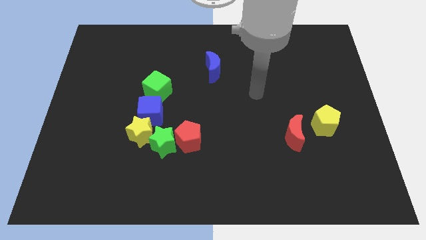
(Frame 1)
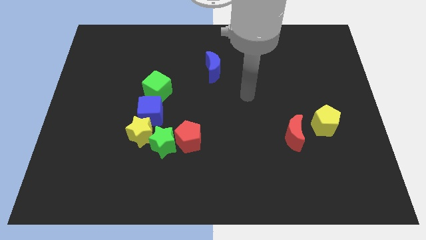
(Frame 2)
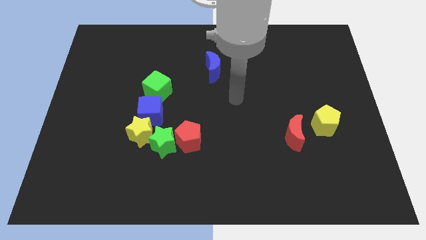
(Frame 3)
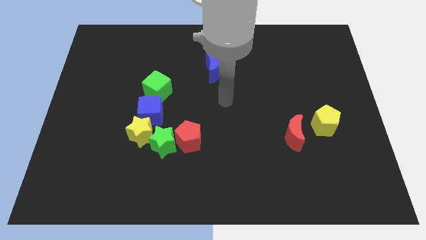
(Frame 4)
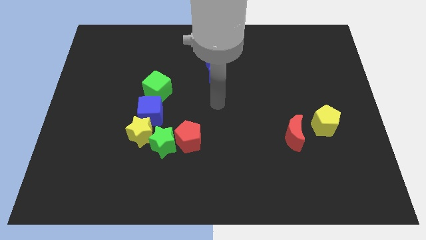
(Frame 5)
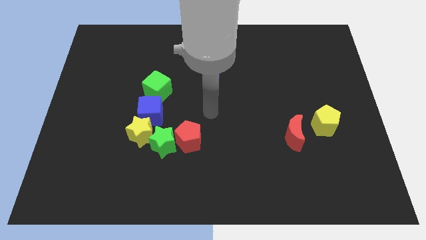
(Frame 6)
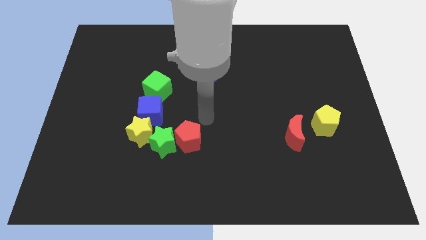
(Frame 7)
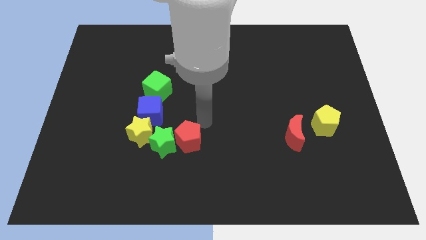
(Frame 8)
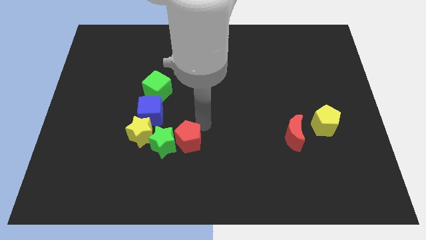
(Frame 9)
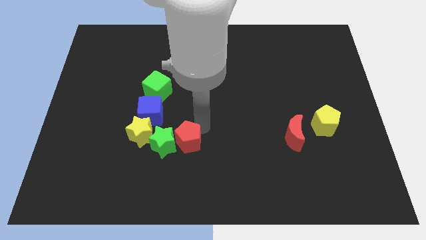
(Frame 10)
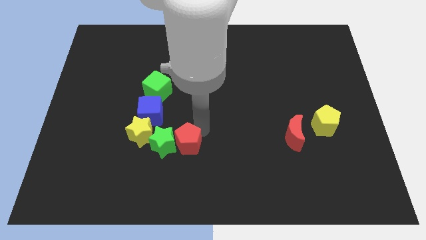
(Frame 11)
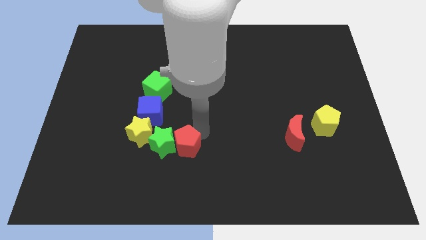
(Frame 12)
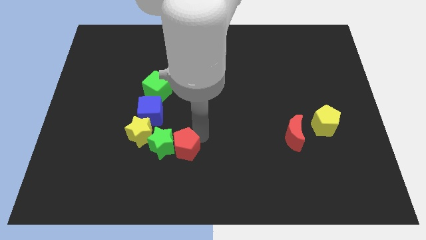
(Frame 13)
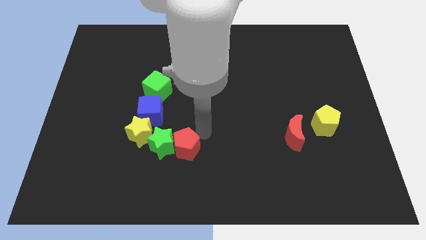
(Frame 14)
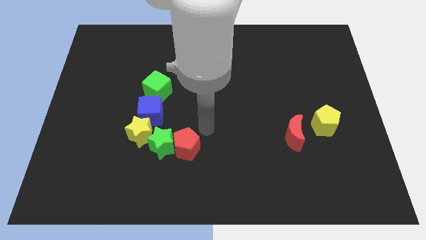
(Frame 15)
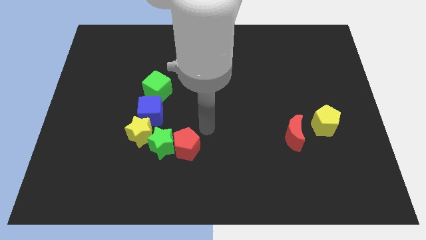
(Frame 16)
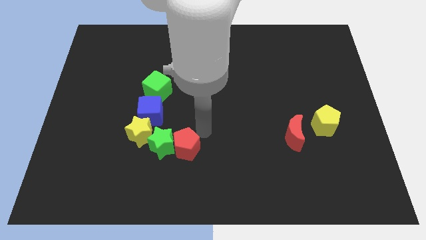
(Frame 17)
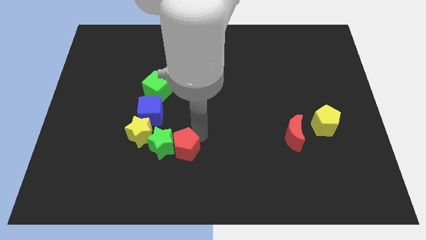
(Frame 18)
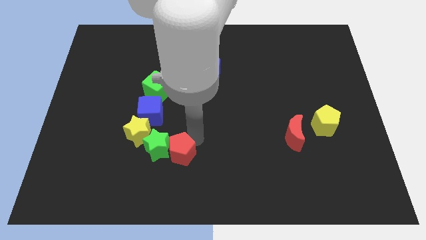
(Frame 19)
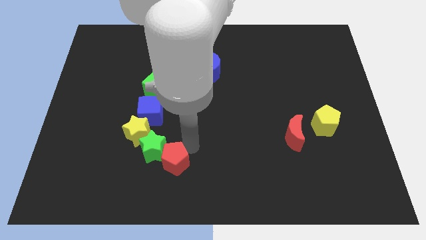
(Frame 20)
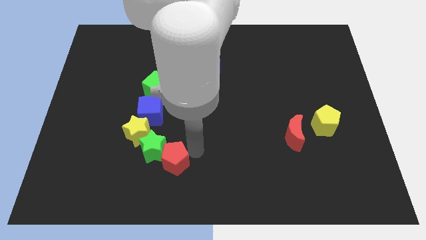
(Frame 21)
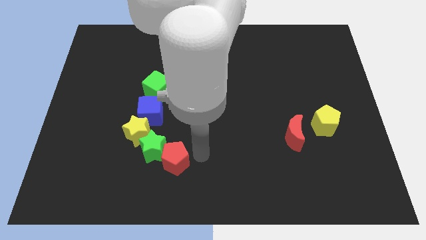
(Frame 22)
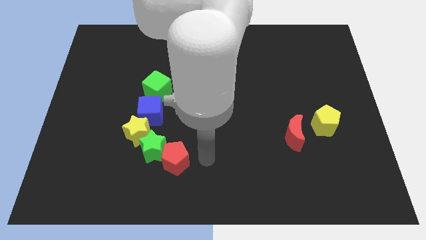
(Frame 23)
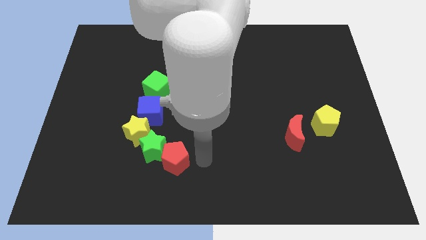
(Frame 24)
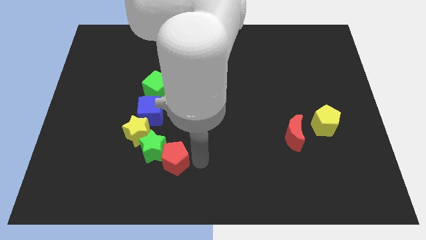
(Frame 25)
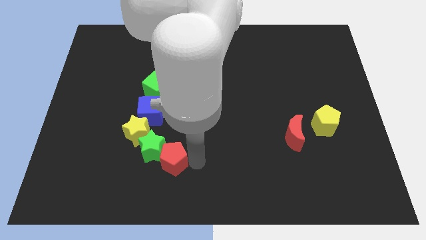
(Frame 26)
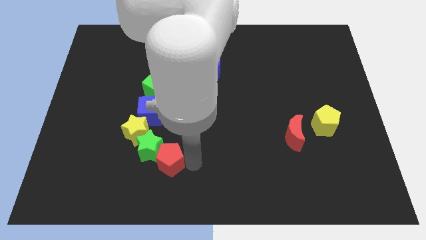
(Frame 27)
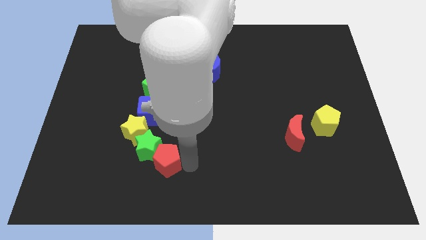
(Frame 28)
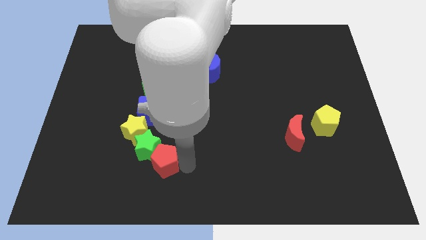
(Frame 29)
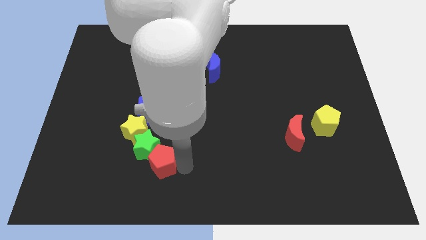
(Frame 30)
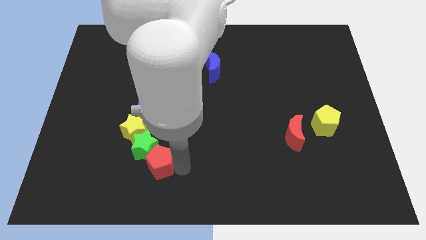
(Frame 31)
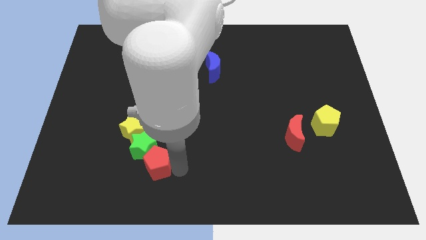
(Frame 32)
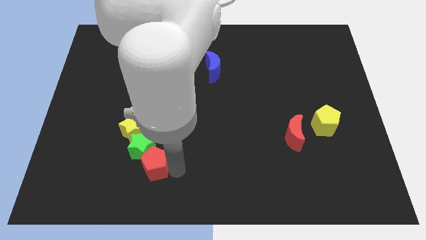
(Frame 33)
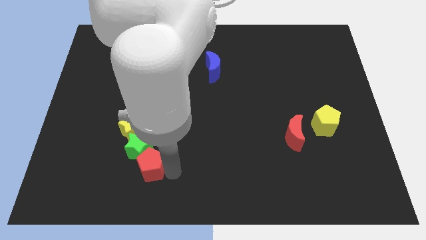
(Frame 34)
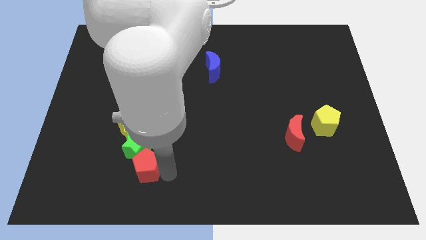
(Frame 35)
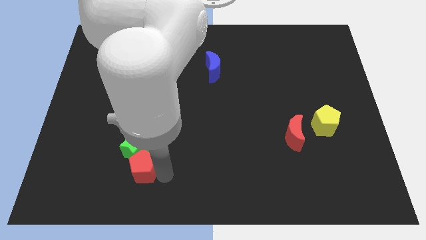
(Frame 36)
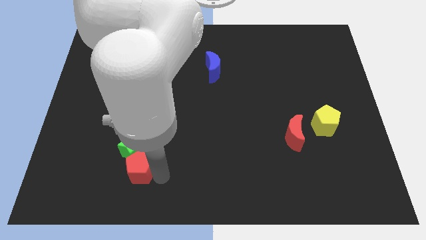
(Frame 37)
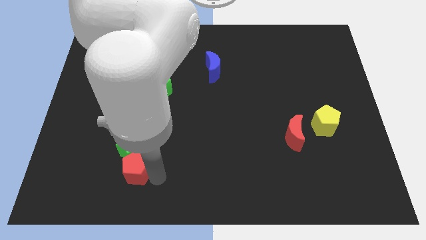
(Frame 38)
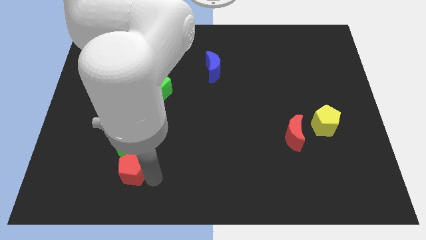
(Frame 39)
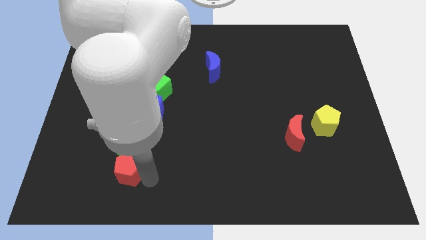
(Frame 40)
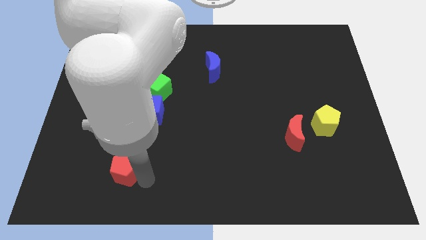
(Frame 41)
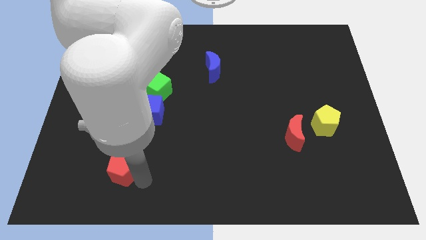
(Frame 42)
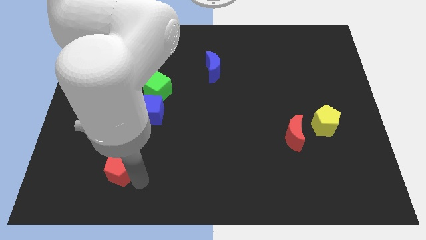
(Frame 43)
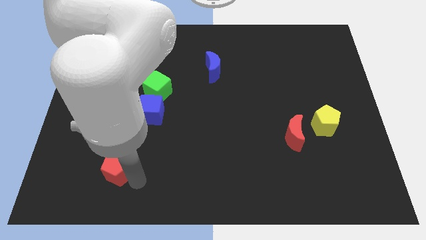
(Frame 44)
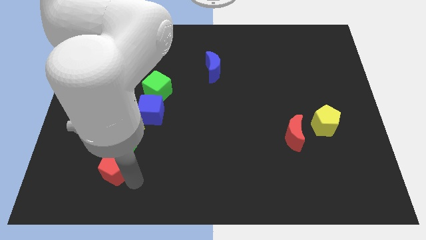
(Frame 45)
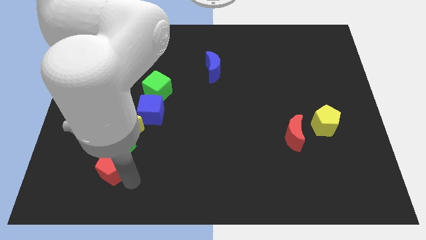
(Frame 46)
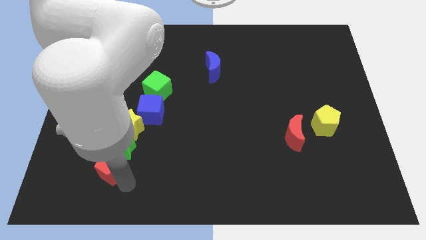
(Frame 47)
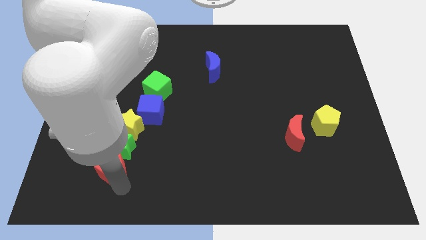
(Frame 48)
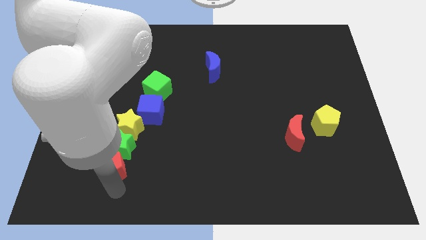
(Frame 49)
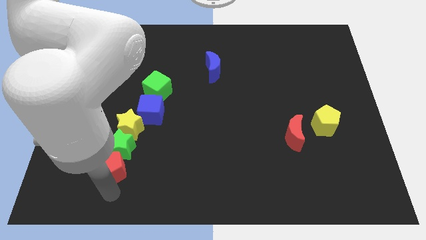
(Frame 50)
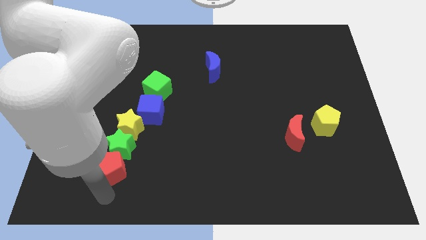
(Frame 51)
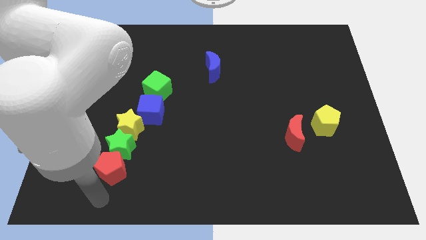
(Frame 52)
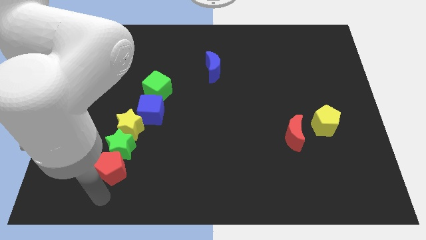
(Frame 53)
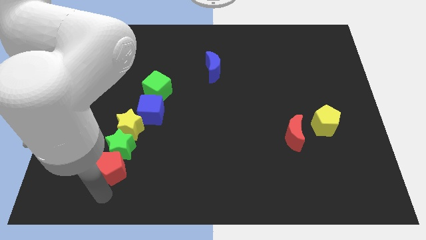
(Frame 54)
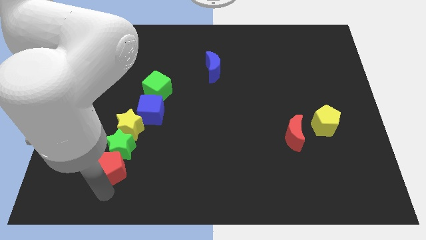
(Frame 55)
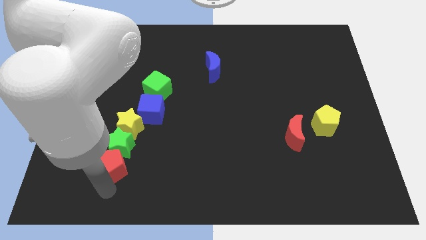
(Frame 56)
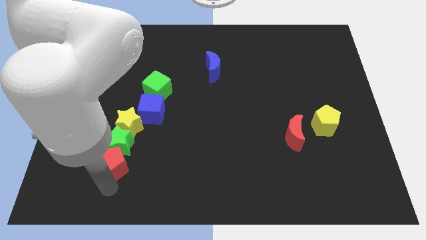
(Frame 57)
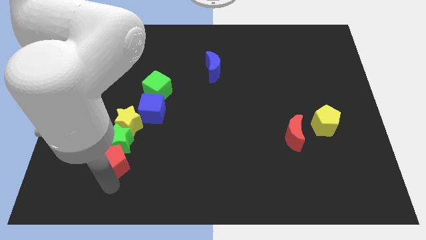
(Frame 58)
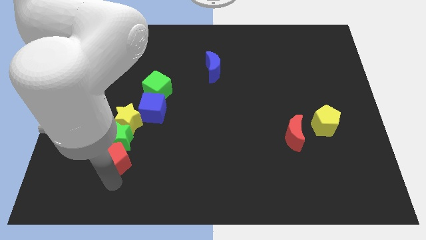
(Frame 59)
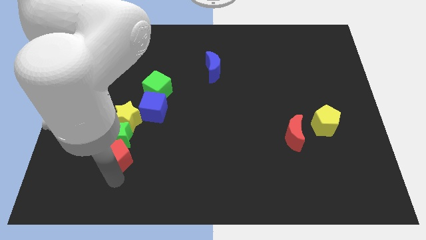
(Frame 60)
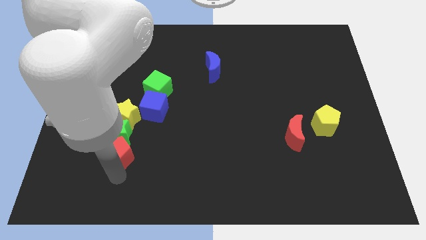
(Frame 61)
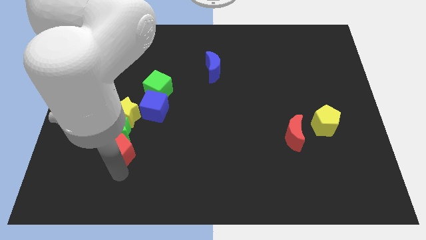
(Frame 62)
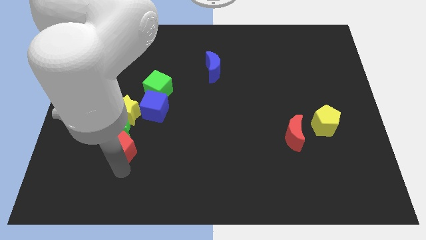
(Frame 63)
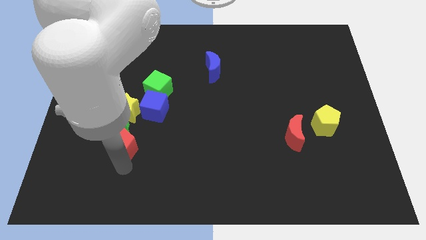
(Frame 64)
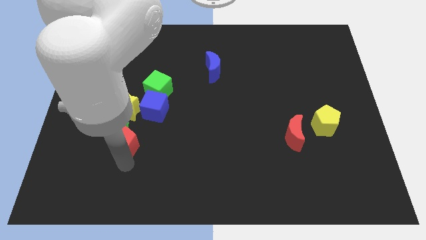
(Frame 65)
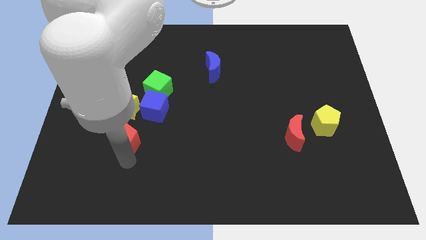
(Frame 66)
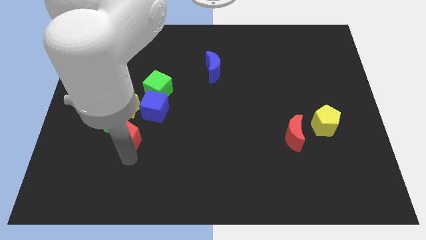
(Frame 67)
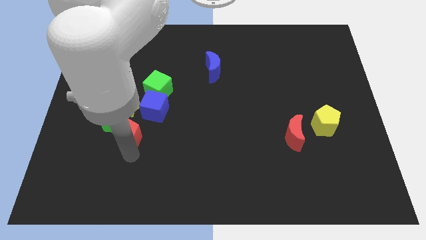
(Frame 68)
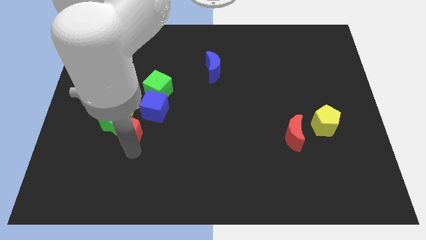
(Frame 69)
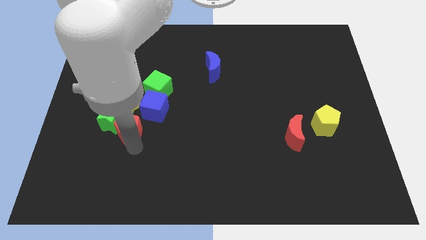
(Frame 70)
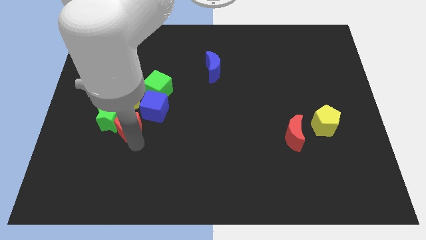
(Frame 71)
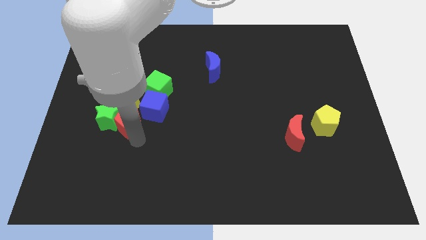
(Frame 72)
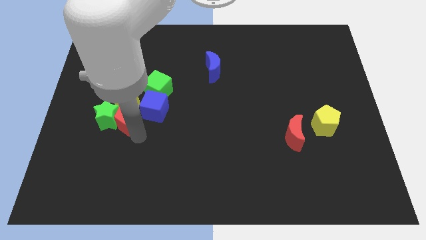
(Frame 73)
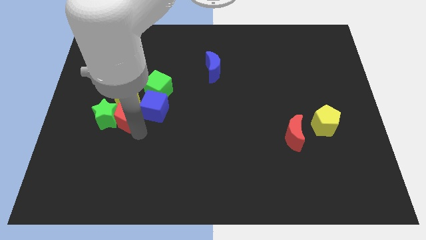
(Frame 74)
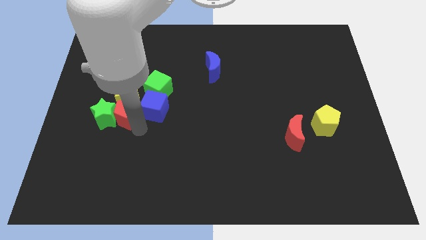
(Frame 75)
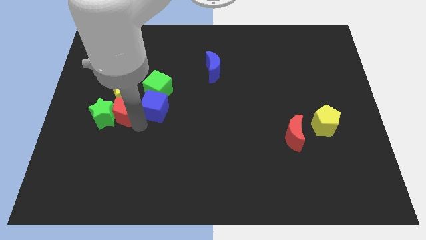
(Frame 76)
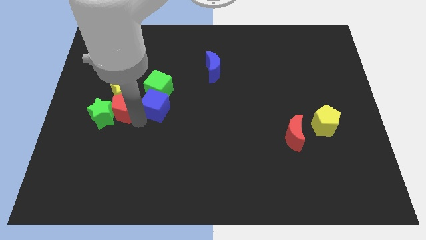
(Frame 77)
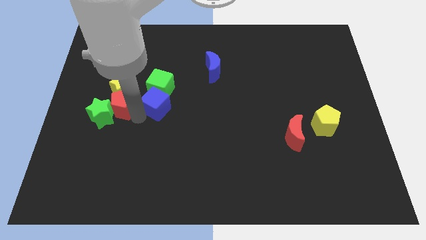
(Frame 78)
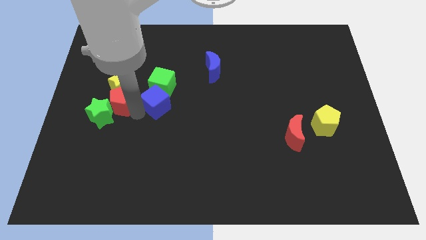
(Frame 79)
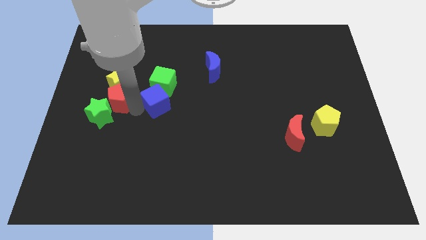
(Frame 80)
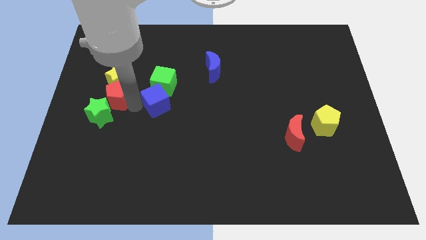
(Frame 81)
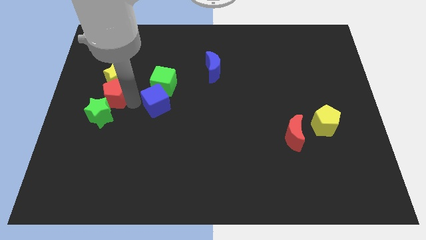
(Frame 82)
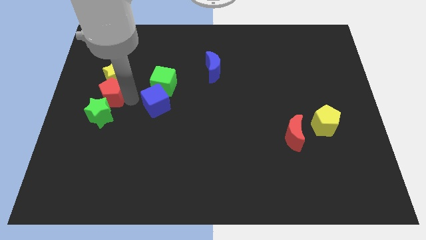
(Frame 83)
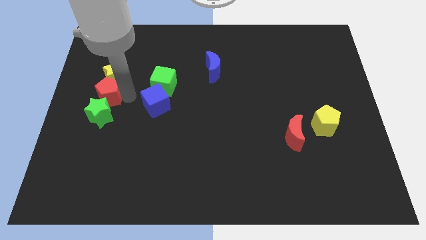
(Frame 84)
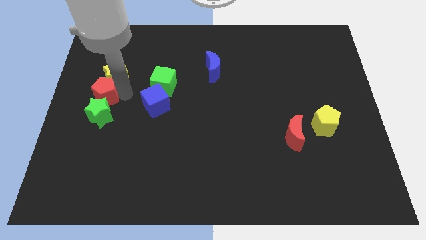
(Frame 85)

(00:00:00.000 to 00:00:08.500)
move the red pentagon to the left side of the board
